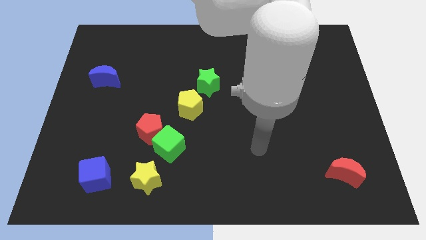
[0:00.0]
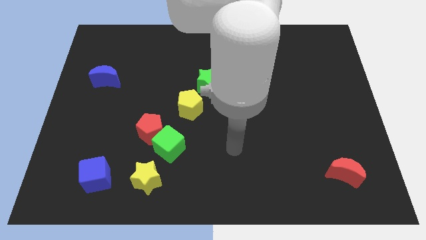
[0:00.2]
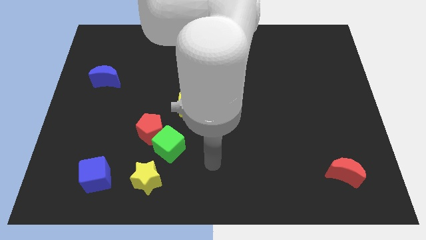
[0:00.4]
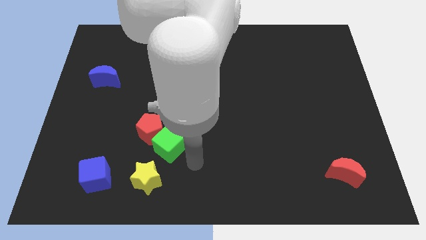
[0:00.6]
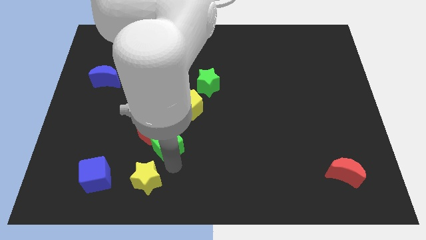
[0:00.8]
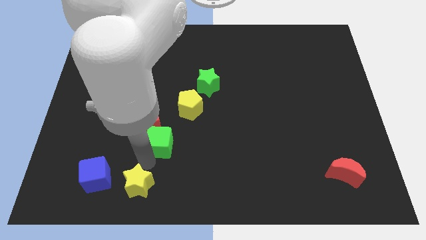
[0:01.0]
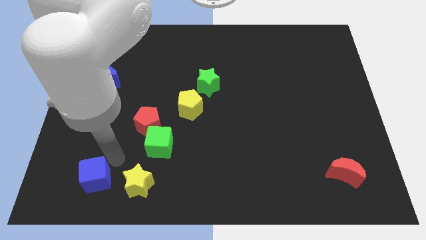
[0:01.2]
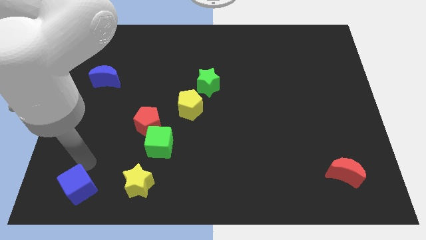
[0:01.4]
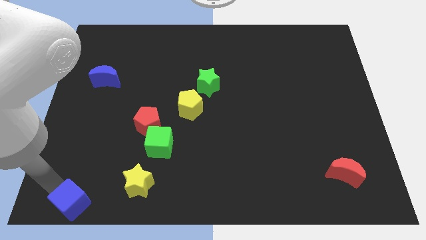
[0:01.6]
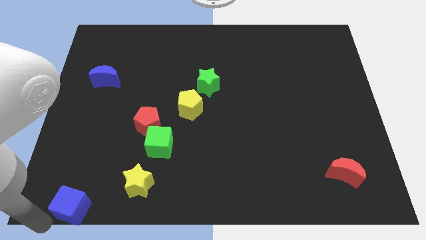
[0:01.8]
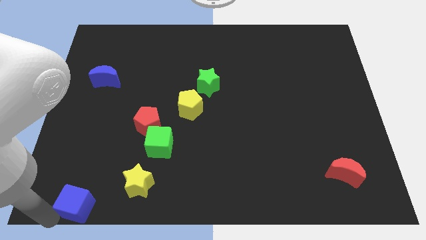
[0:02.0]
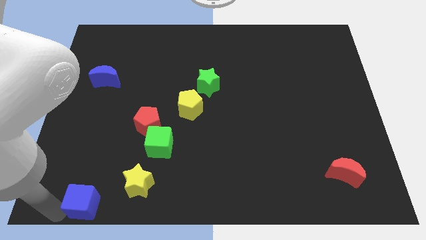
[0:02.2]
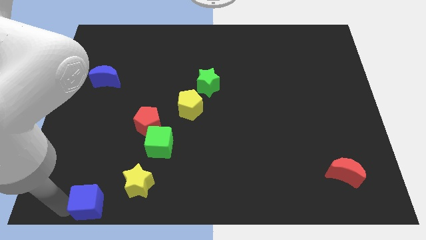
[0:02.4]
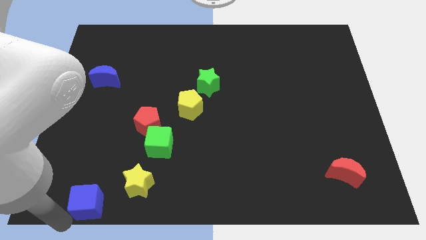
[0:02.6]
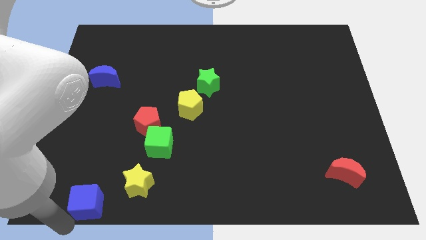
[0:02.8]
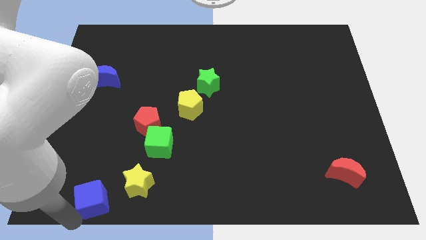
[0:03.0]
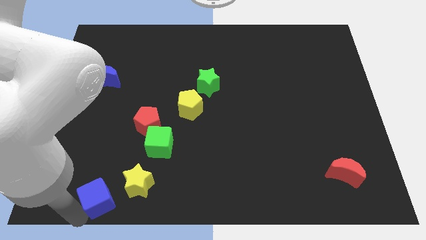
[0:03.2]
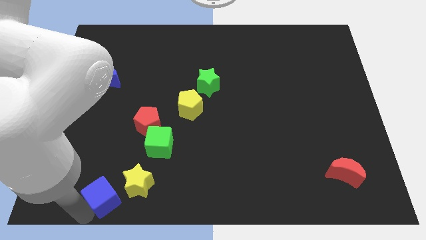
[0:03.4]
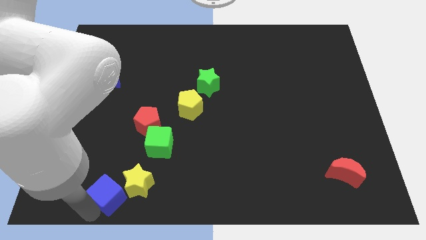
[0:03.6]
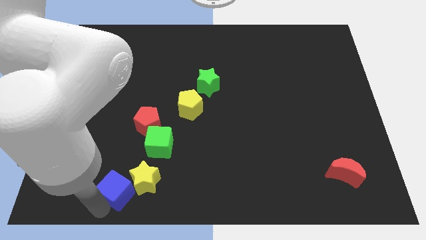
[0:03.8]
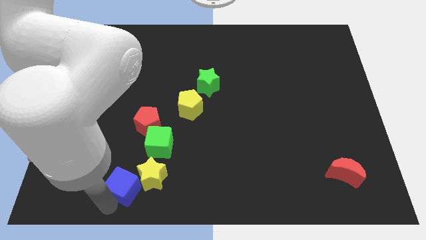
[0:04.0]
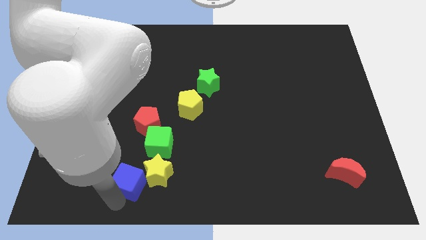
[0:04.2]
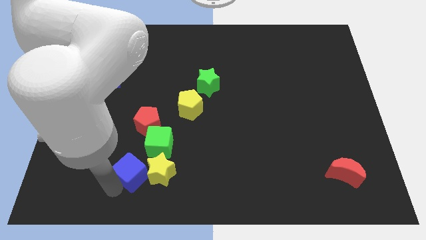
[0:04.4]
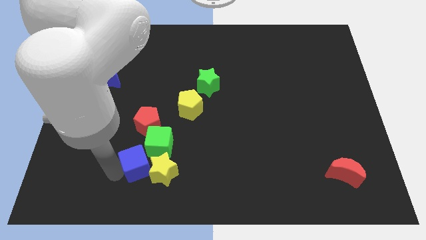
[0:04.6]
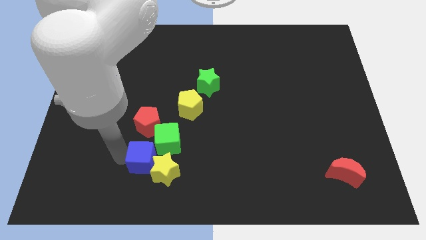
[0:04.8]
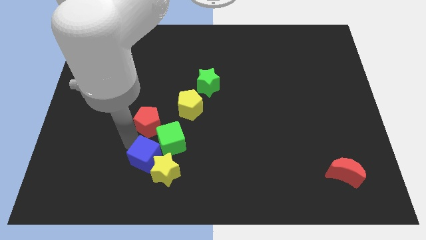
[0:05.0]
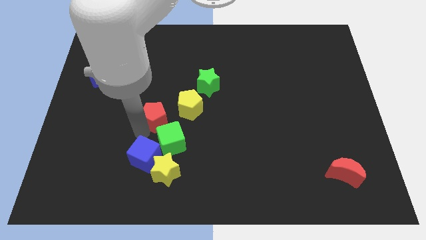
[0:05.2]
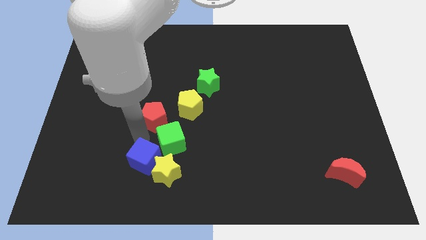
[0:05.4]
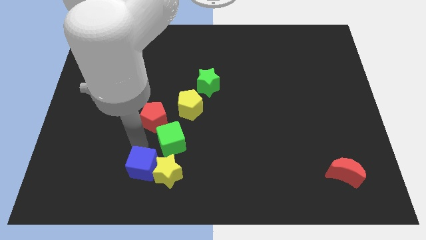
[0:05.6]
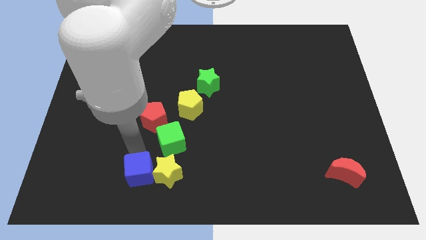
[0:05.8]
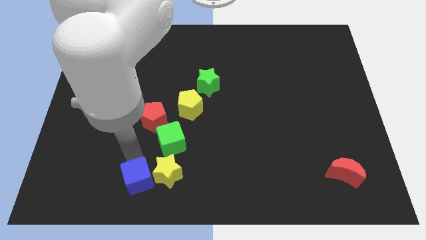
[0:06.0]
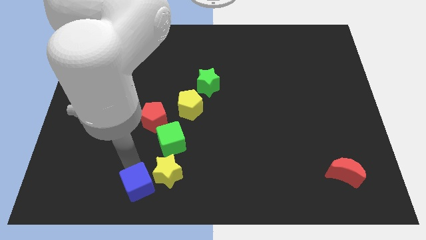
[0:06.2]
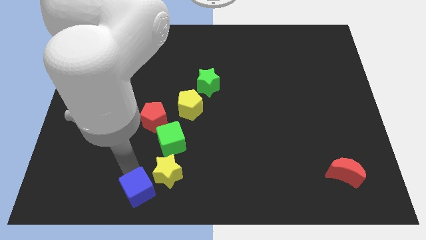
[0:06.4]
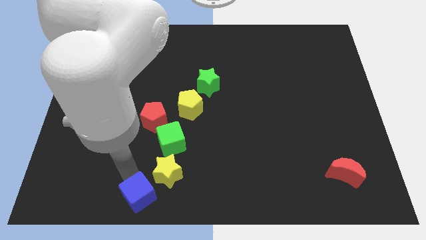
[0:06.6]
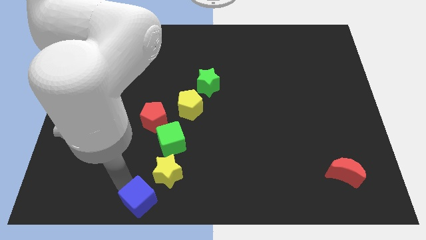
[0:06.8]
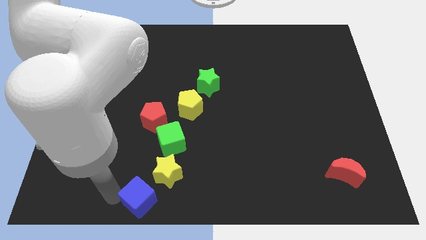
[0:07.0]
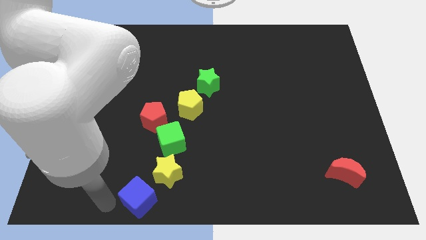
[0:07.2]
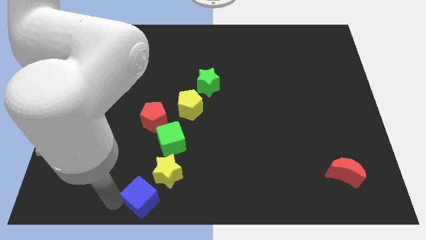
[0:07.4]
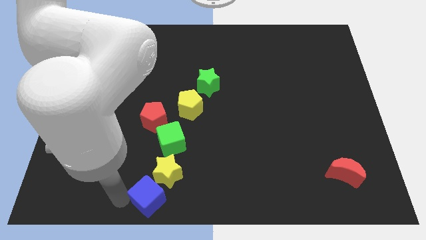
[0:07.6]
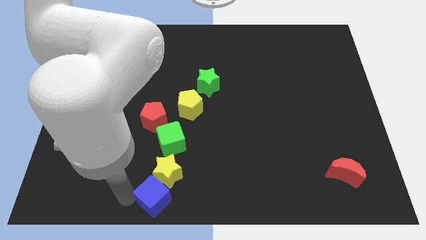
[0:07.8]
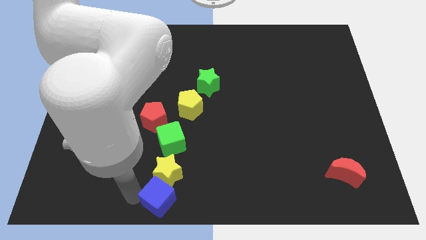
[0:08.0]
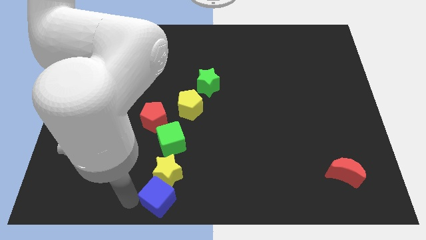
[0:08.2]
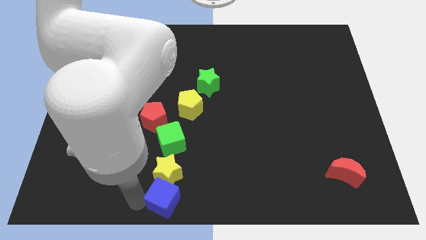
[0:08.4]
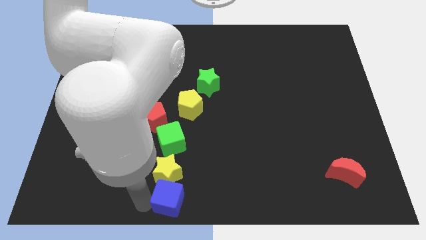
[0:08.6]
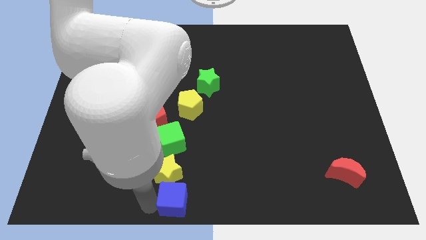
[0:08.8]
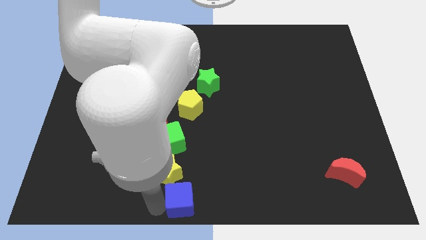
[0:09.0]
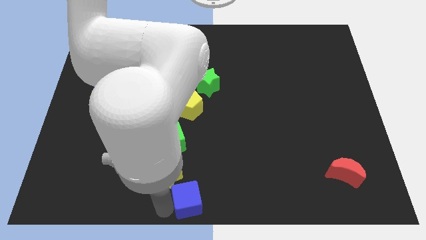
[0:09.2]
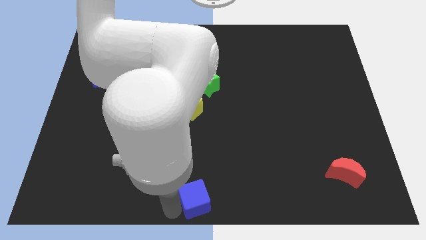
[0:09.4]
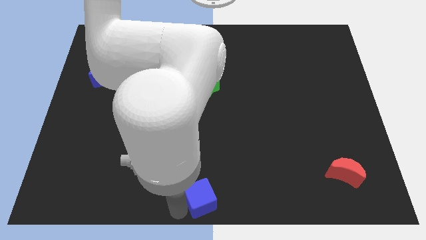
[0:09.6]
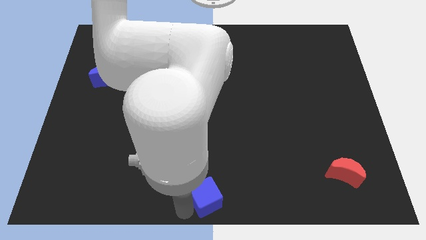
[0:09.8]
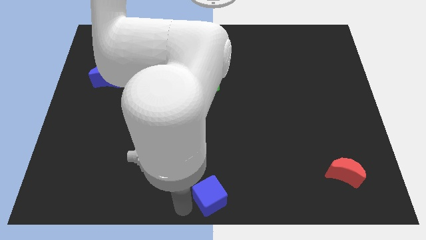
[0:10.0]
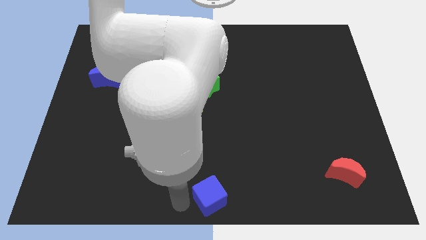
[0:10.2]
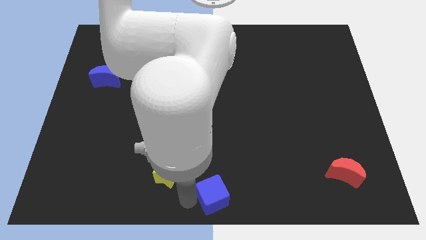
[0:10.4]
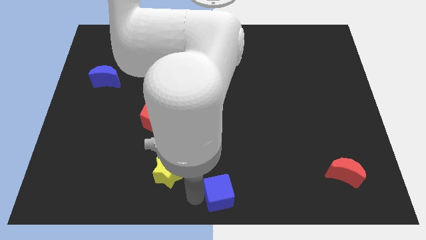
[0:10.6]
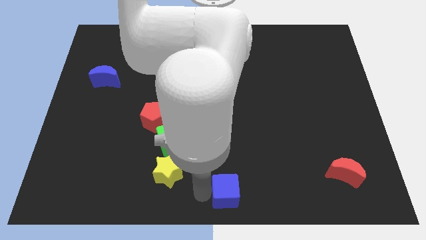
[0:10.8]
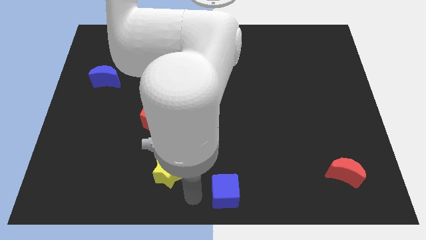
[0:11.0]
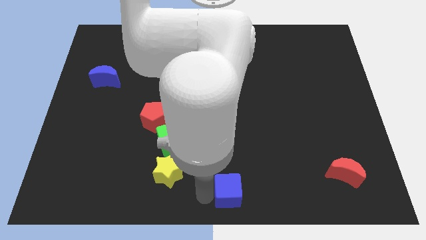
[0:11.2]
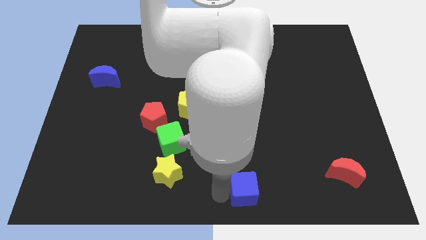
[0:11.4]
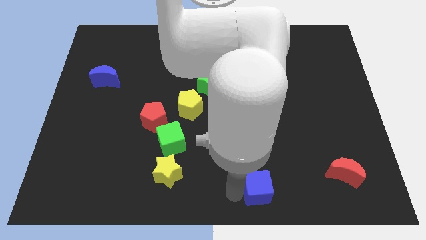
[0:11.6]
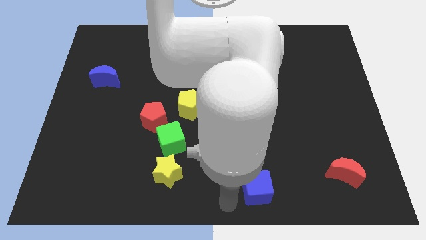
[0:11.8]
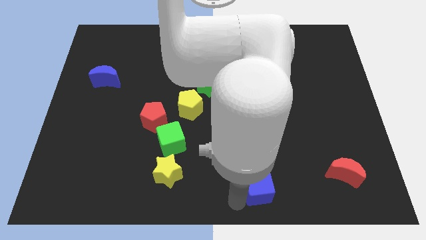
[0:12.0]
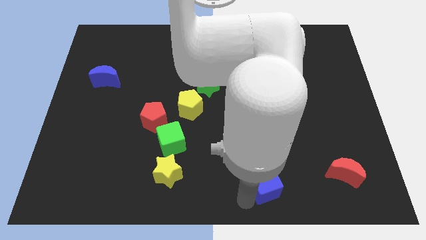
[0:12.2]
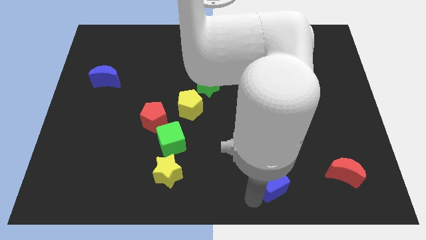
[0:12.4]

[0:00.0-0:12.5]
move the blue cube left of the red moon

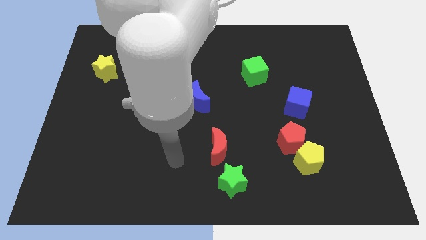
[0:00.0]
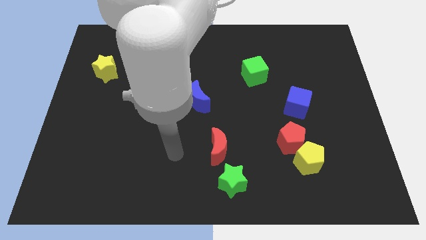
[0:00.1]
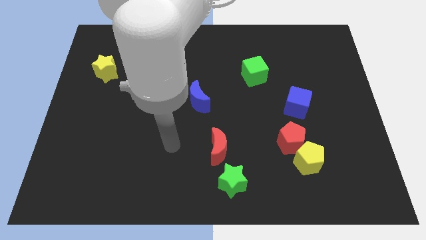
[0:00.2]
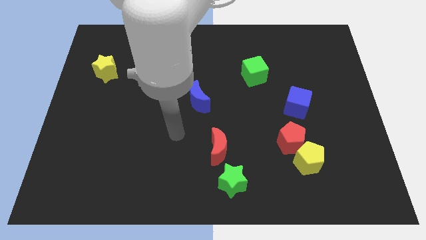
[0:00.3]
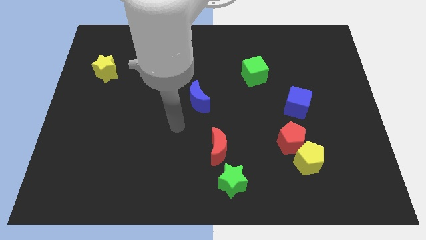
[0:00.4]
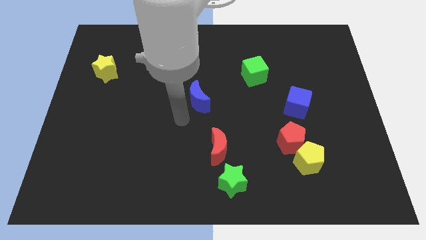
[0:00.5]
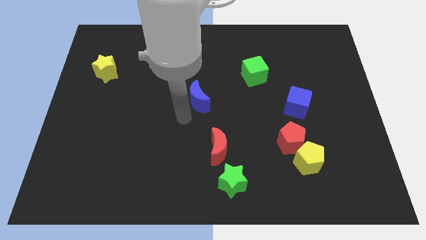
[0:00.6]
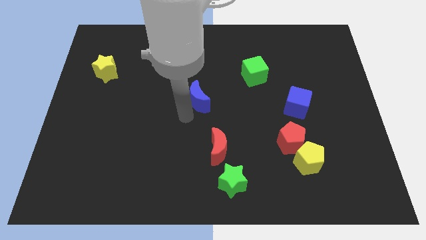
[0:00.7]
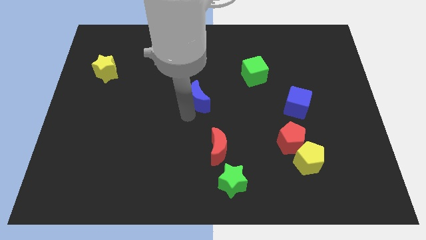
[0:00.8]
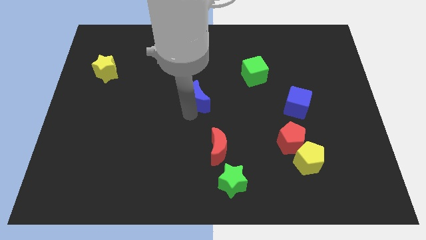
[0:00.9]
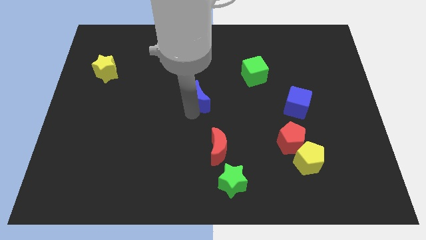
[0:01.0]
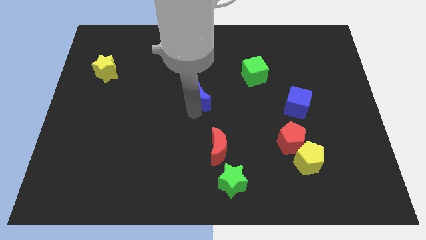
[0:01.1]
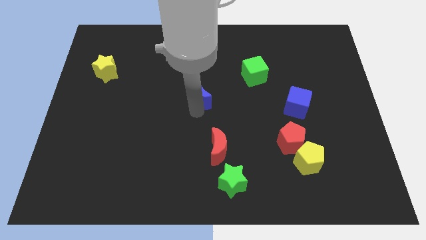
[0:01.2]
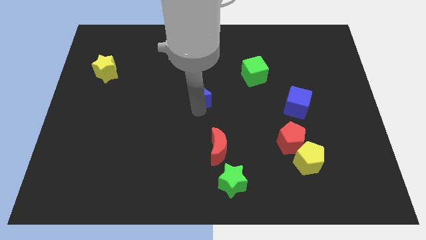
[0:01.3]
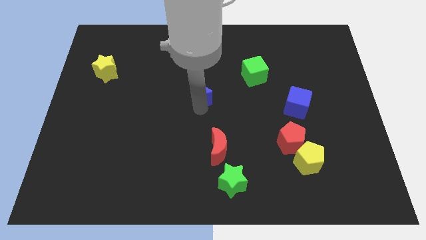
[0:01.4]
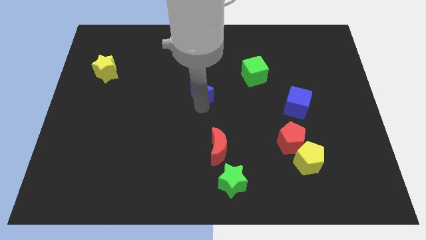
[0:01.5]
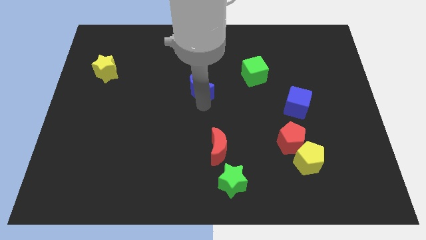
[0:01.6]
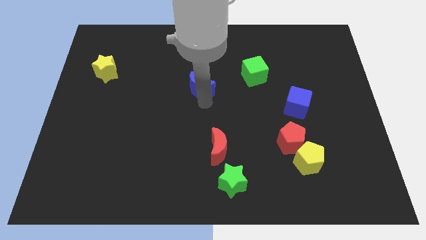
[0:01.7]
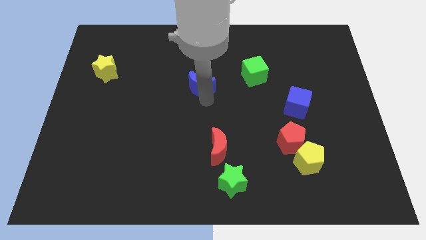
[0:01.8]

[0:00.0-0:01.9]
move the blue moon to the left side of the green cube
